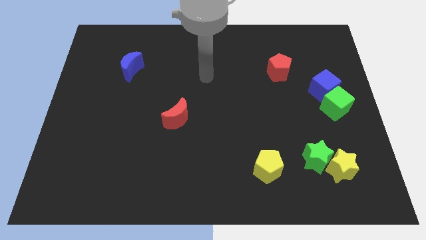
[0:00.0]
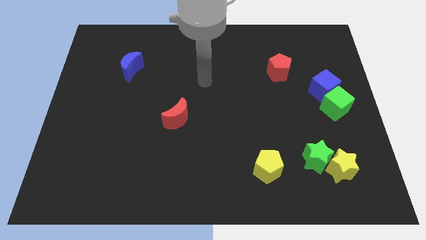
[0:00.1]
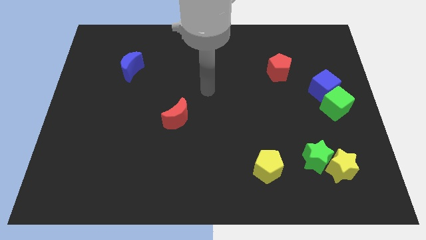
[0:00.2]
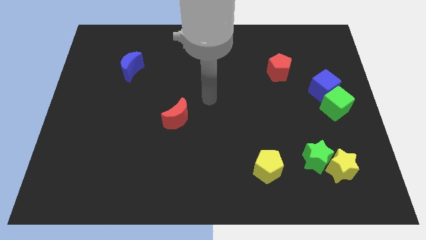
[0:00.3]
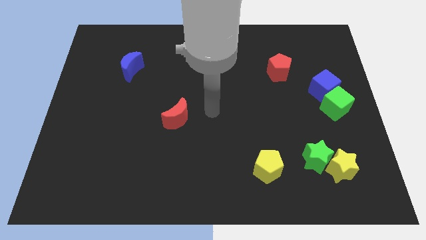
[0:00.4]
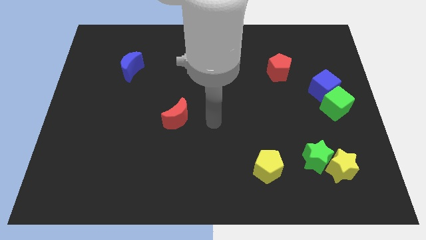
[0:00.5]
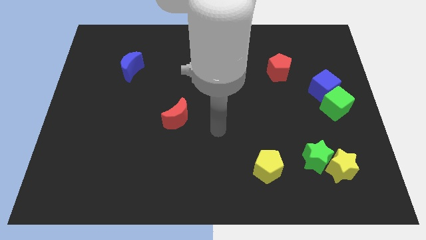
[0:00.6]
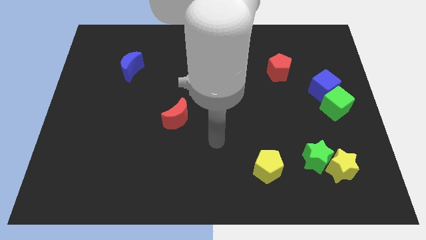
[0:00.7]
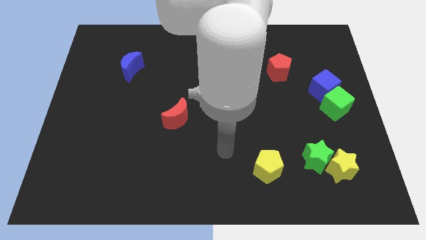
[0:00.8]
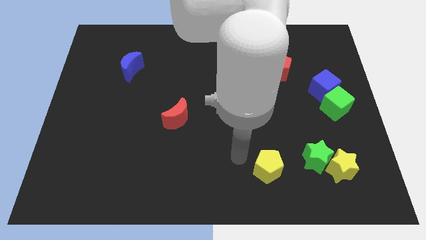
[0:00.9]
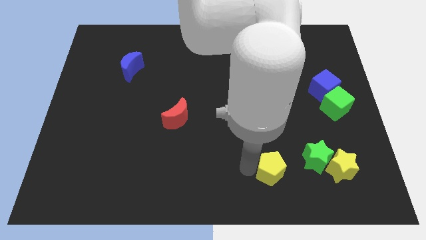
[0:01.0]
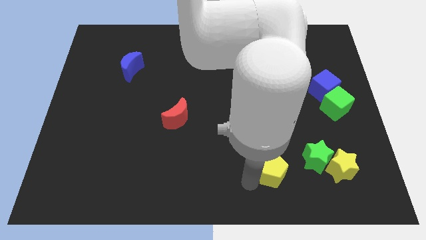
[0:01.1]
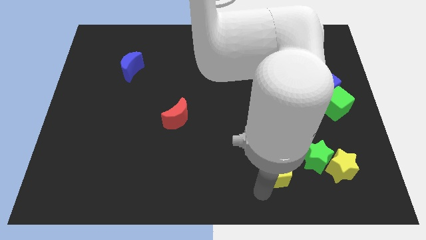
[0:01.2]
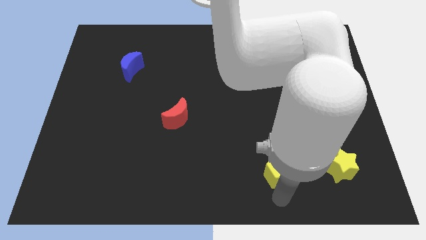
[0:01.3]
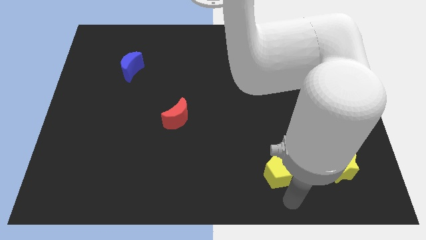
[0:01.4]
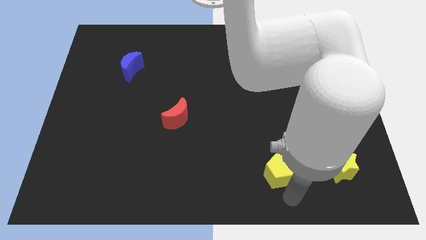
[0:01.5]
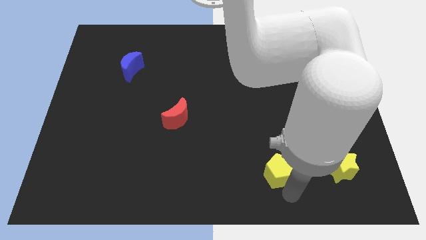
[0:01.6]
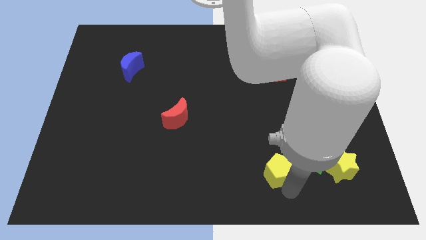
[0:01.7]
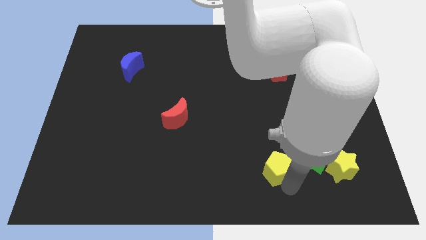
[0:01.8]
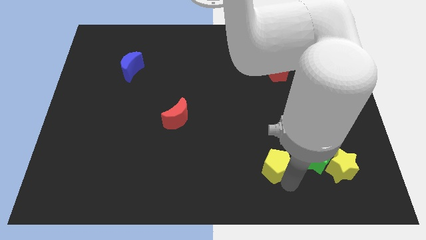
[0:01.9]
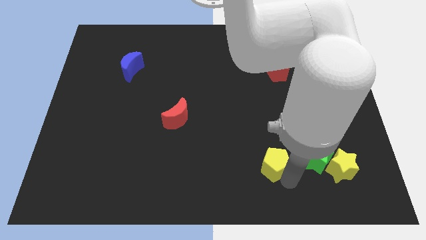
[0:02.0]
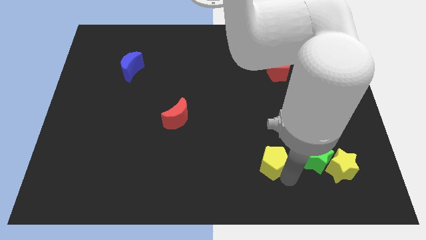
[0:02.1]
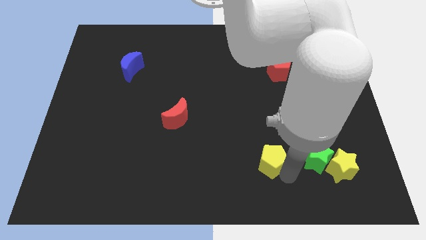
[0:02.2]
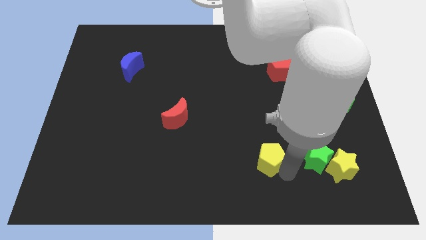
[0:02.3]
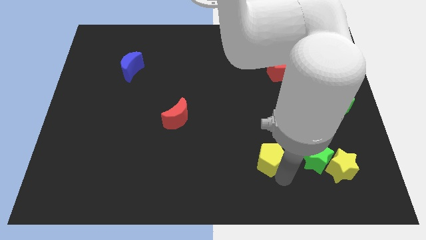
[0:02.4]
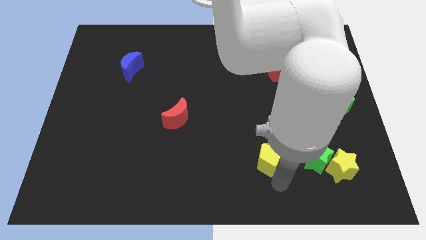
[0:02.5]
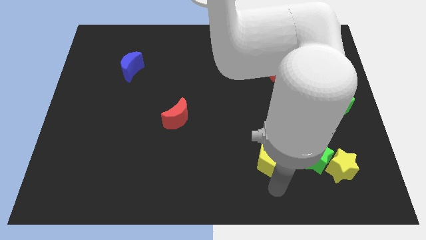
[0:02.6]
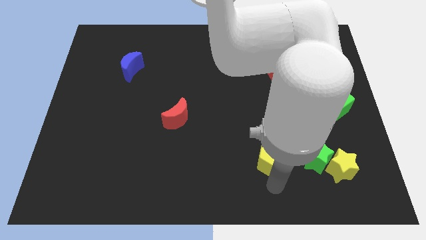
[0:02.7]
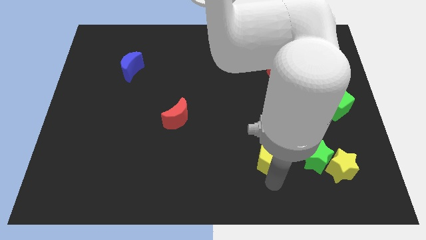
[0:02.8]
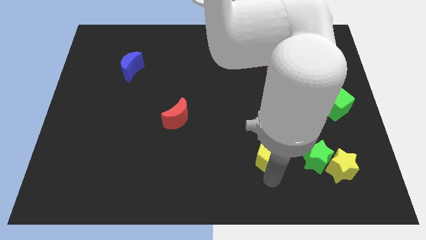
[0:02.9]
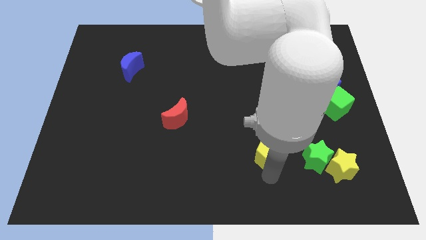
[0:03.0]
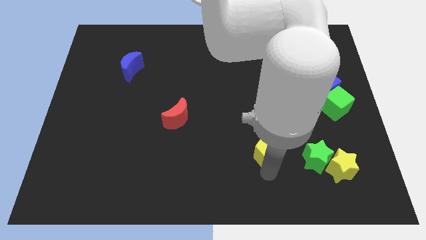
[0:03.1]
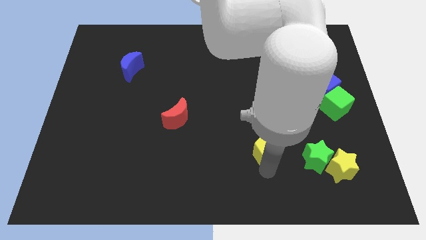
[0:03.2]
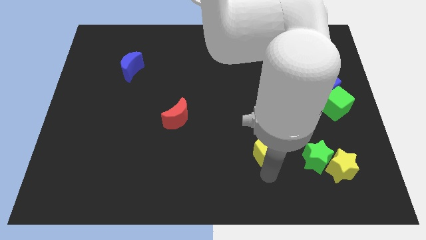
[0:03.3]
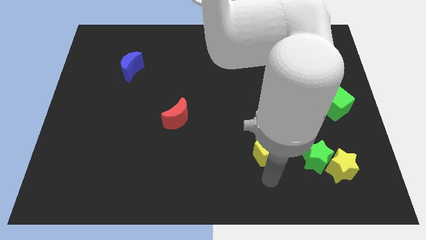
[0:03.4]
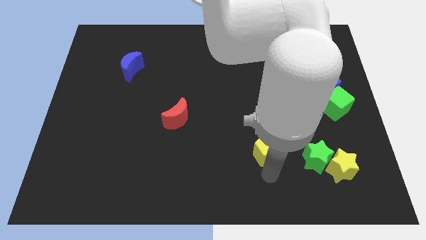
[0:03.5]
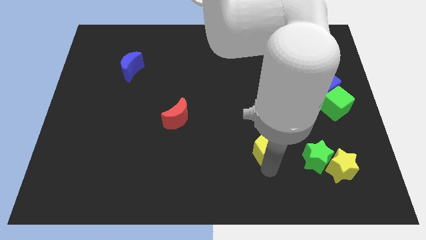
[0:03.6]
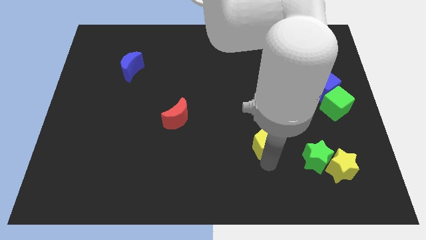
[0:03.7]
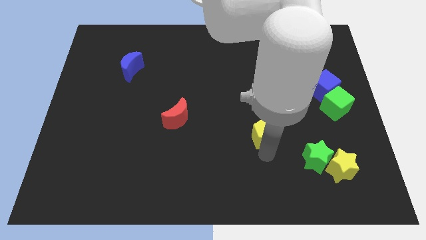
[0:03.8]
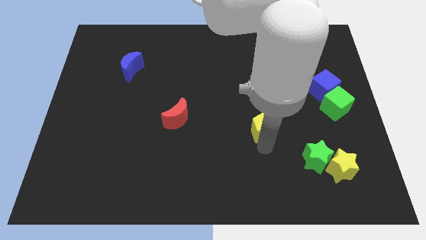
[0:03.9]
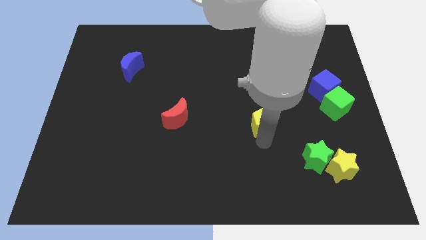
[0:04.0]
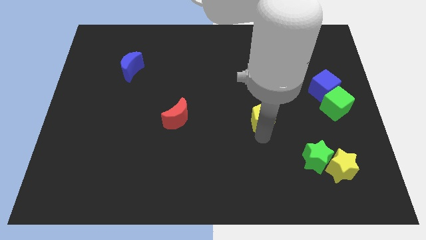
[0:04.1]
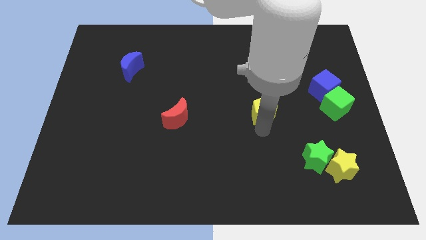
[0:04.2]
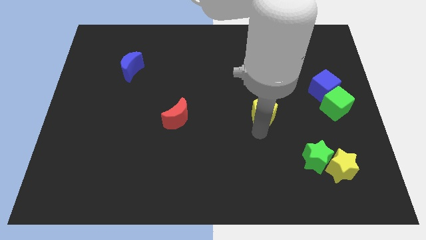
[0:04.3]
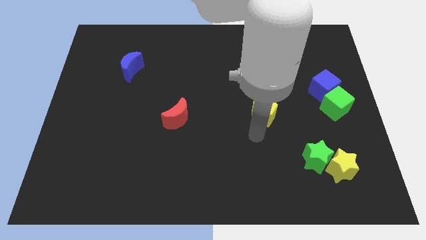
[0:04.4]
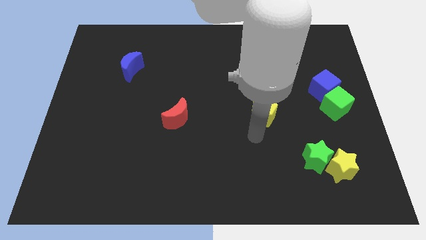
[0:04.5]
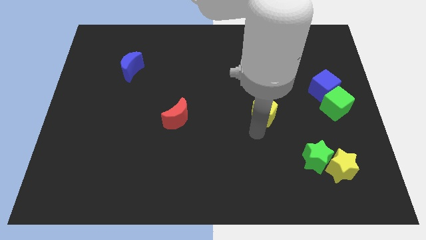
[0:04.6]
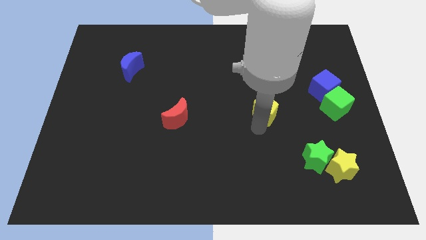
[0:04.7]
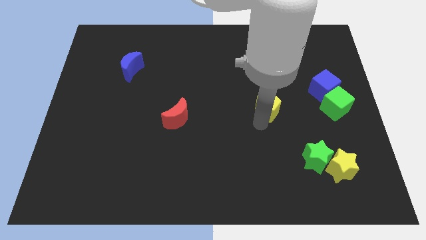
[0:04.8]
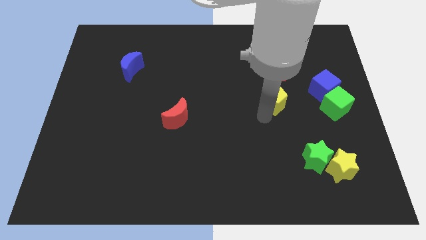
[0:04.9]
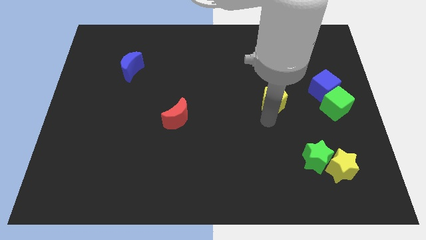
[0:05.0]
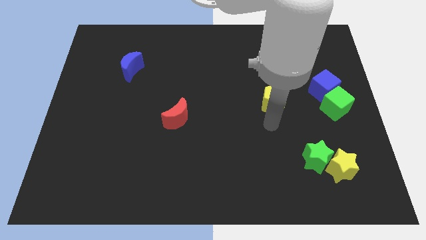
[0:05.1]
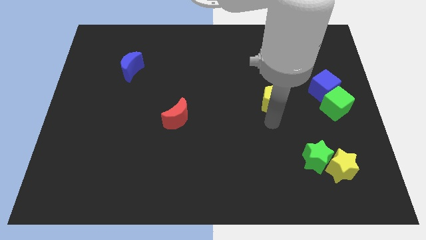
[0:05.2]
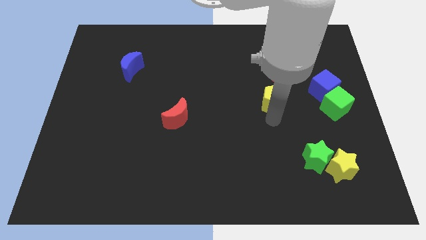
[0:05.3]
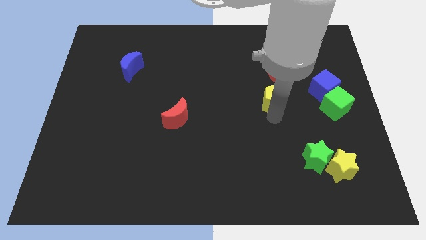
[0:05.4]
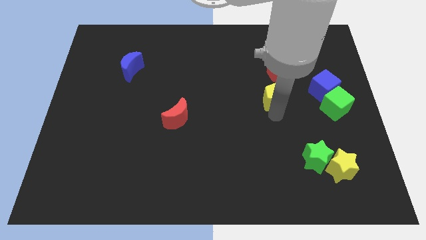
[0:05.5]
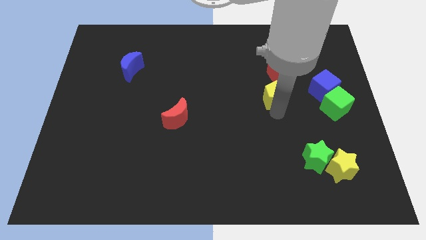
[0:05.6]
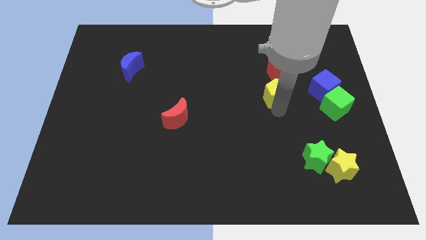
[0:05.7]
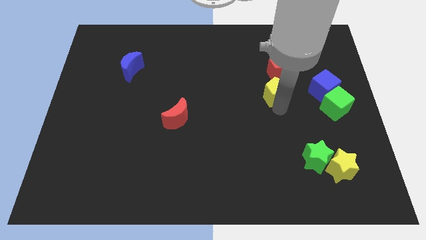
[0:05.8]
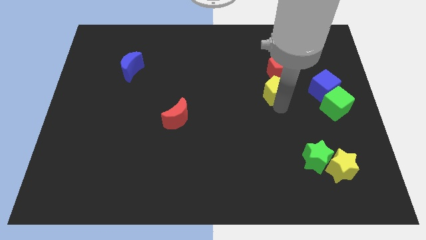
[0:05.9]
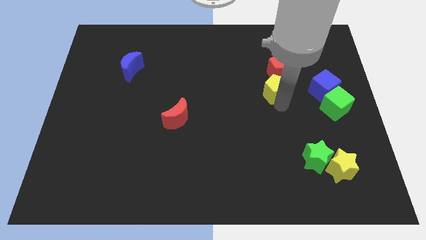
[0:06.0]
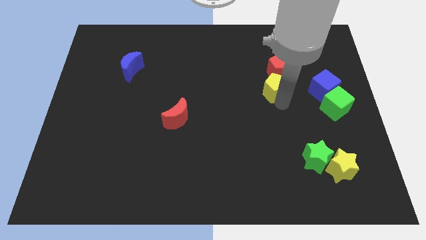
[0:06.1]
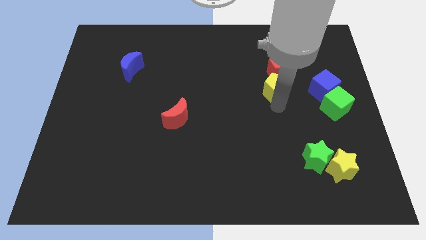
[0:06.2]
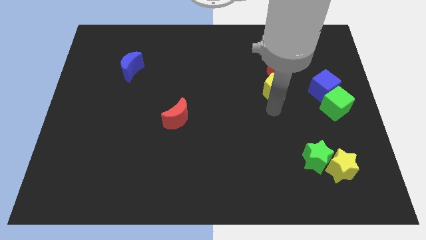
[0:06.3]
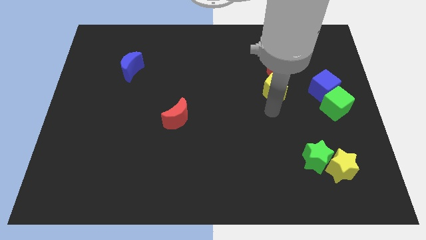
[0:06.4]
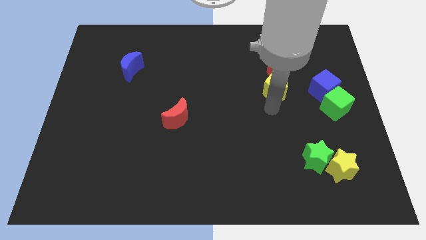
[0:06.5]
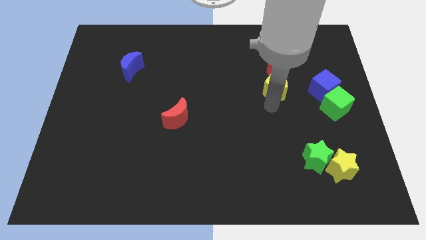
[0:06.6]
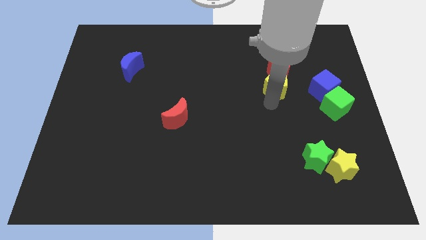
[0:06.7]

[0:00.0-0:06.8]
slide the yellow pentagon towards the red pentagon
